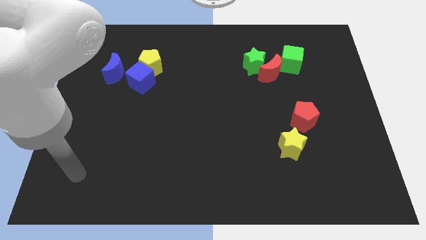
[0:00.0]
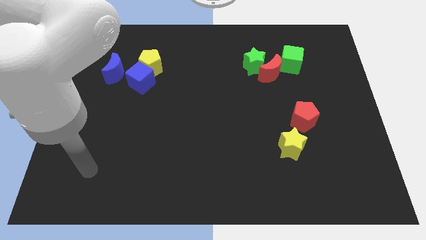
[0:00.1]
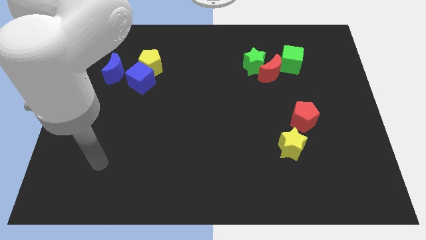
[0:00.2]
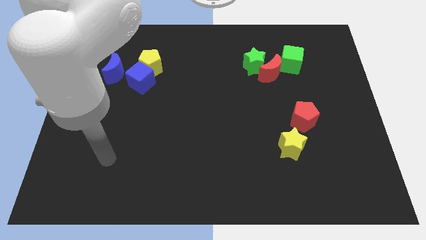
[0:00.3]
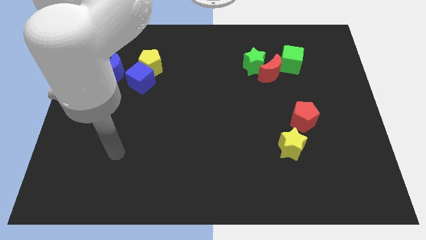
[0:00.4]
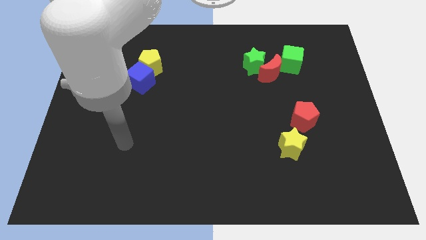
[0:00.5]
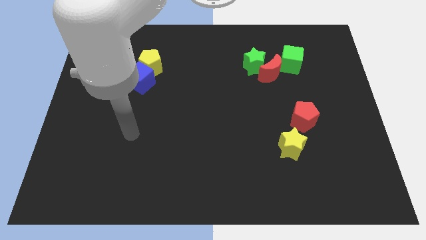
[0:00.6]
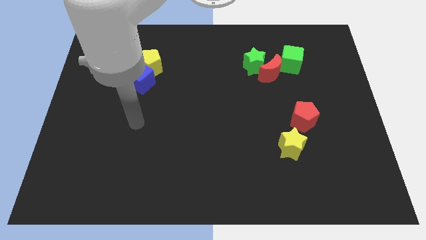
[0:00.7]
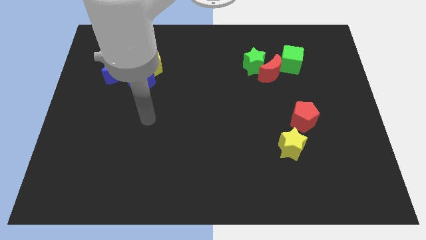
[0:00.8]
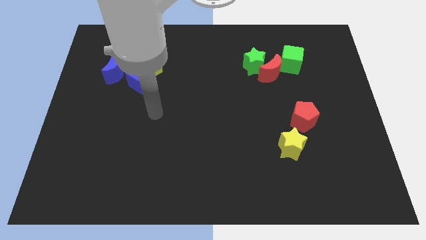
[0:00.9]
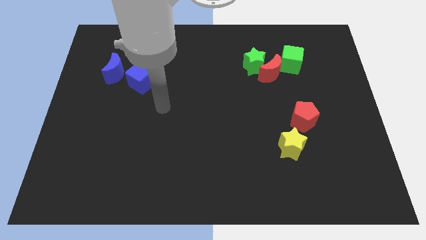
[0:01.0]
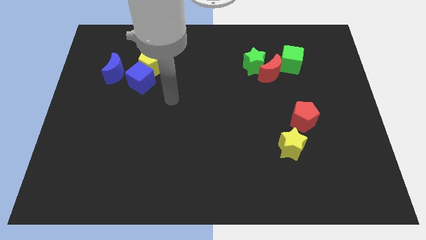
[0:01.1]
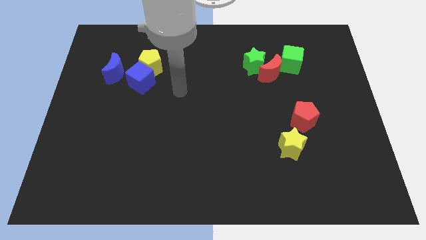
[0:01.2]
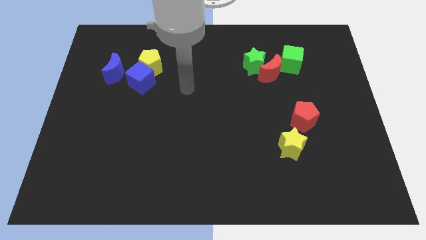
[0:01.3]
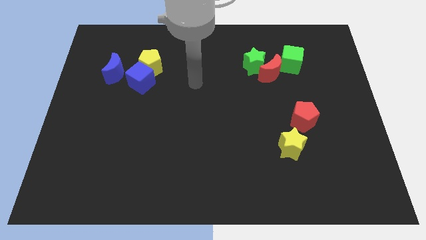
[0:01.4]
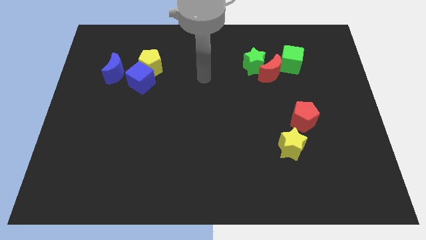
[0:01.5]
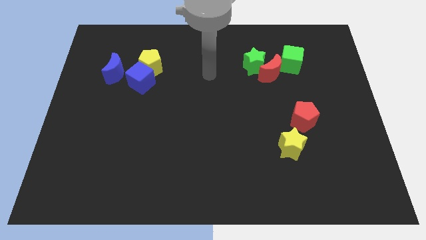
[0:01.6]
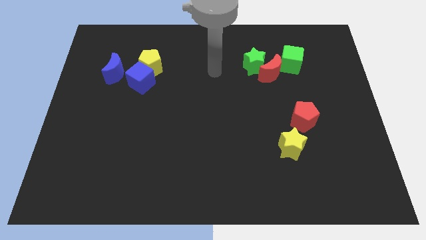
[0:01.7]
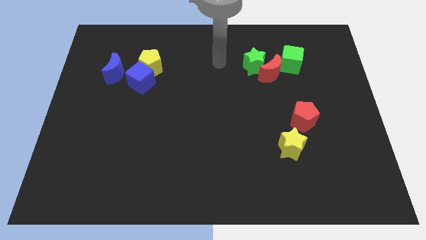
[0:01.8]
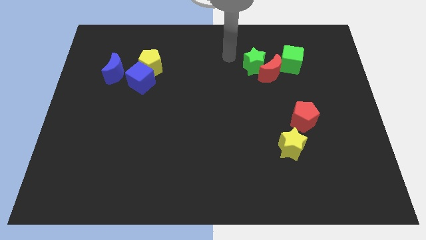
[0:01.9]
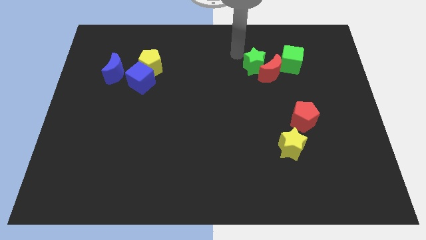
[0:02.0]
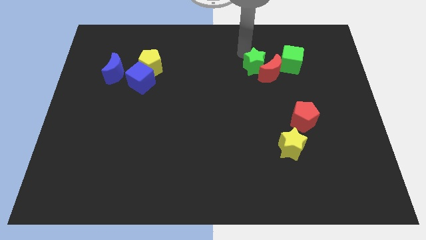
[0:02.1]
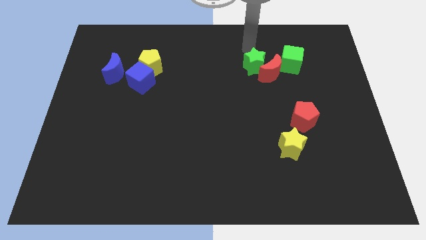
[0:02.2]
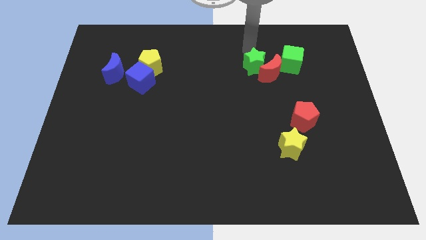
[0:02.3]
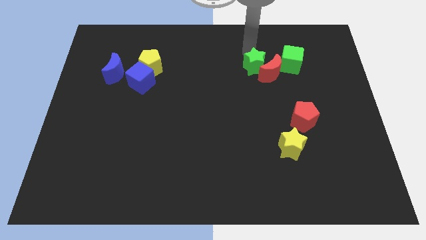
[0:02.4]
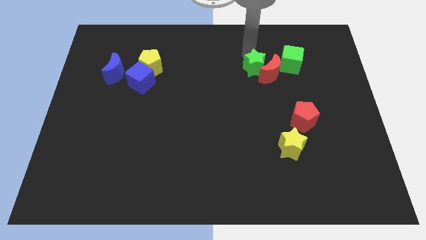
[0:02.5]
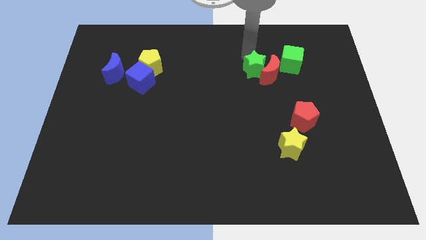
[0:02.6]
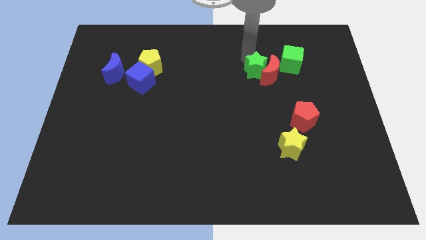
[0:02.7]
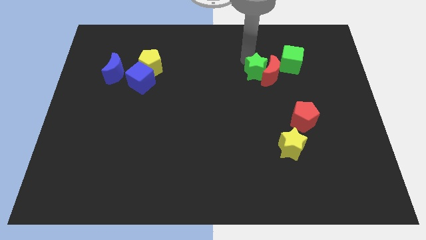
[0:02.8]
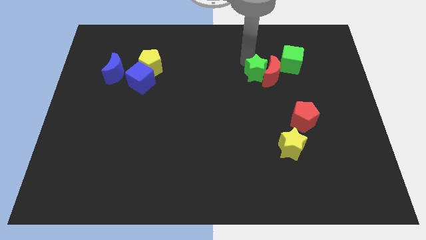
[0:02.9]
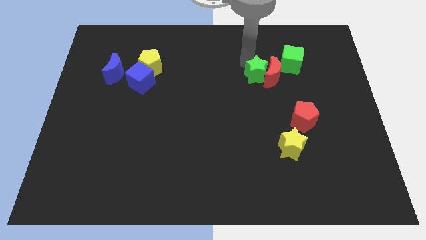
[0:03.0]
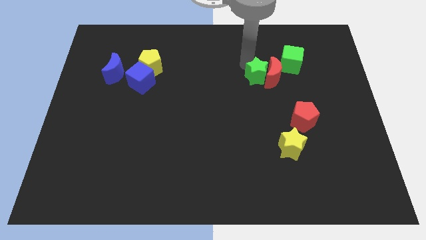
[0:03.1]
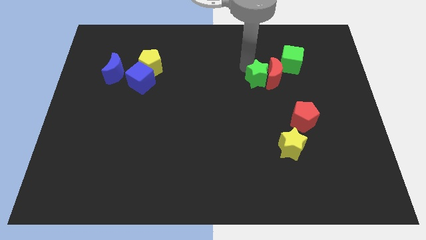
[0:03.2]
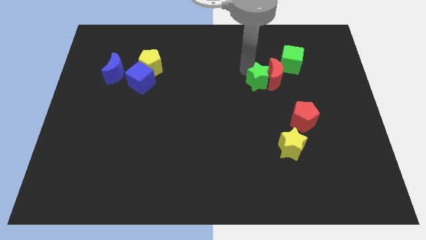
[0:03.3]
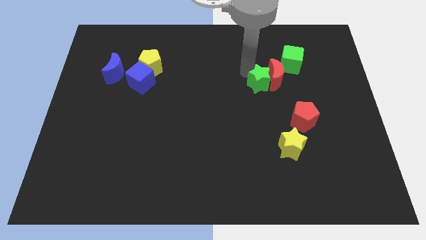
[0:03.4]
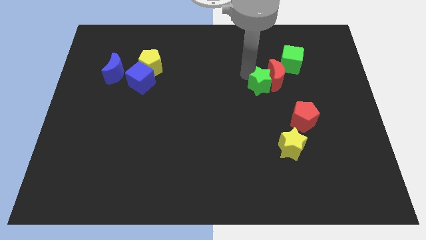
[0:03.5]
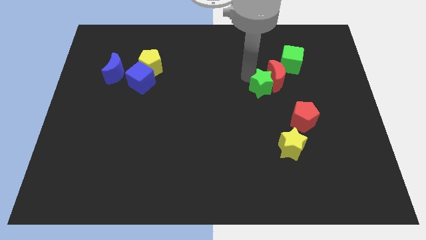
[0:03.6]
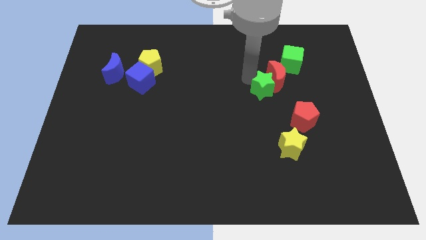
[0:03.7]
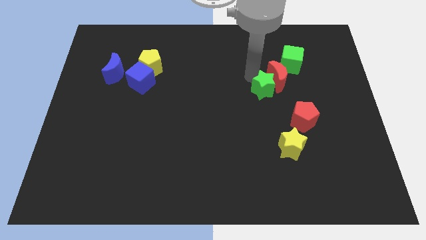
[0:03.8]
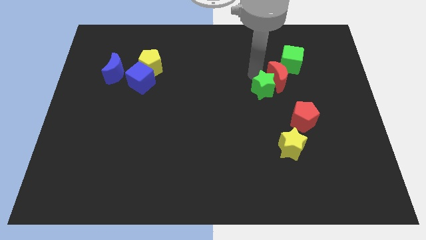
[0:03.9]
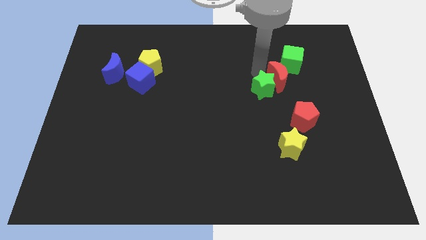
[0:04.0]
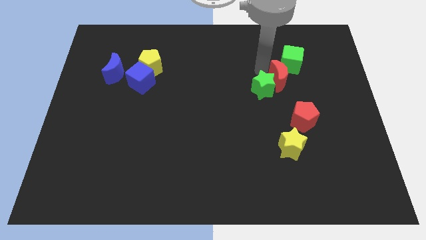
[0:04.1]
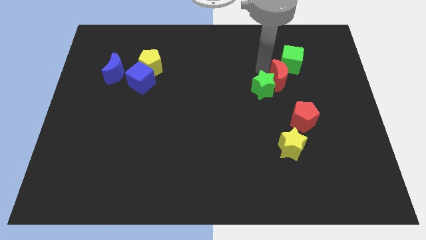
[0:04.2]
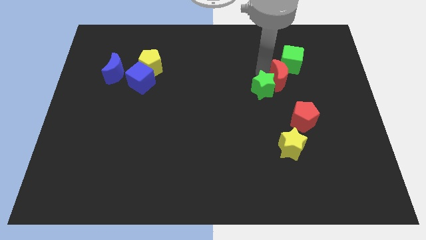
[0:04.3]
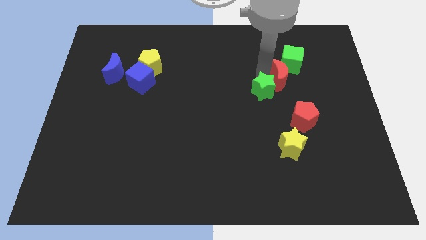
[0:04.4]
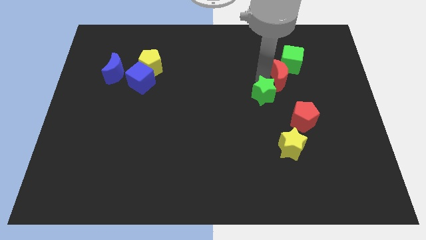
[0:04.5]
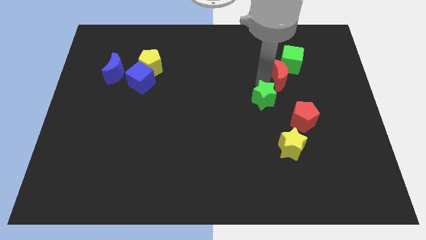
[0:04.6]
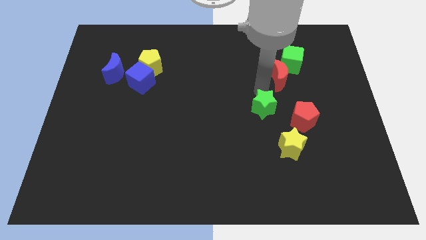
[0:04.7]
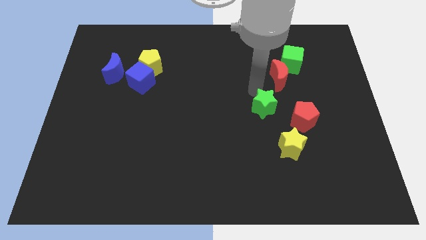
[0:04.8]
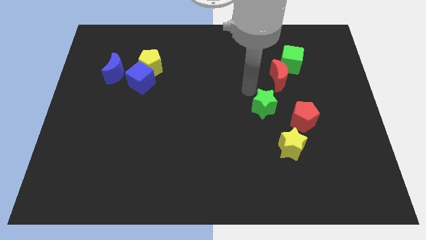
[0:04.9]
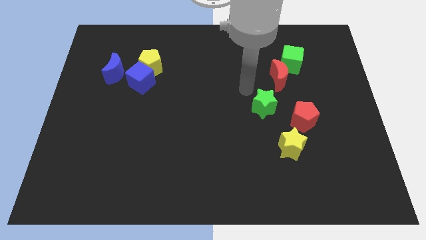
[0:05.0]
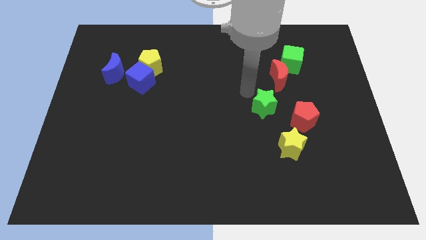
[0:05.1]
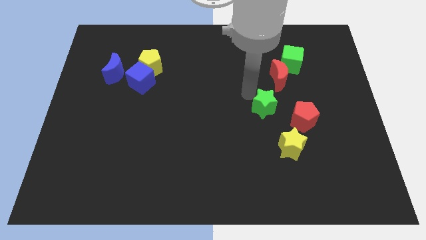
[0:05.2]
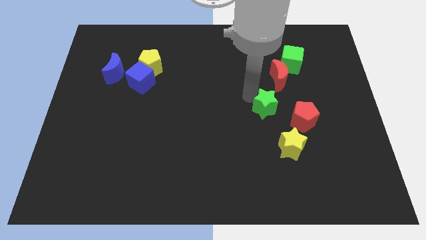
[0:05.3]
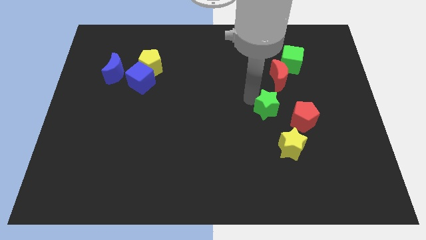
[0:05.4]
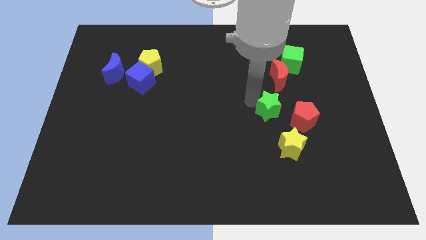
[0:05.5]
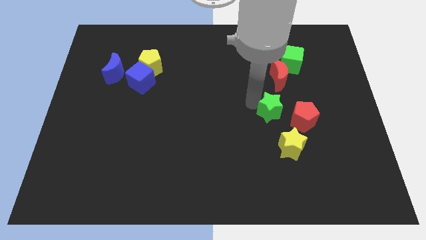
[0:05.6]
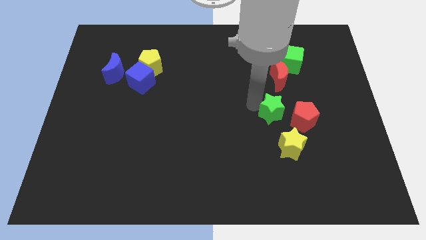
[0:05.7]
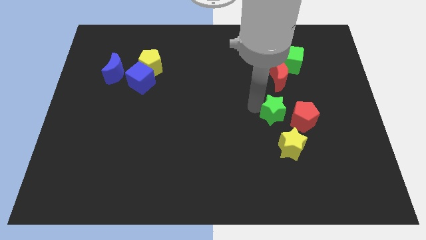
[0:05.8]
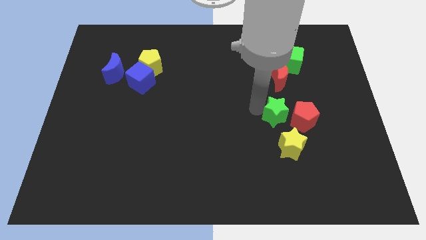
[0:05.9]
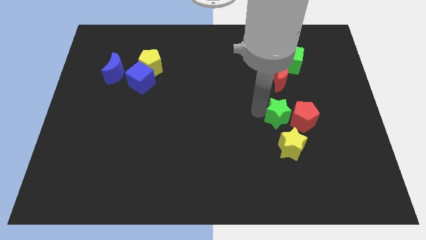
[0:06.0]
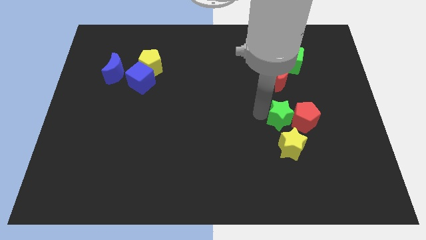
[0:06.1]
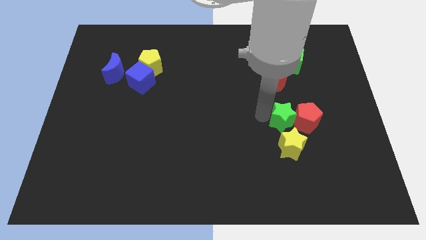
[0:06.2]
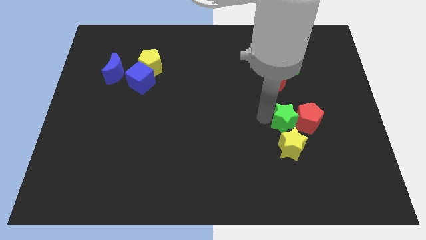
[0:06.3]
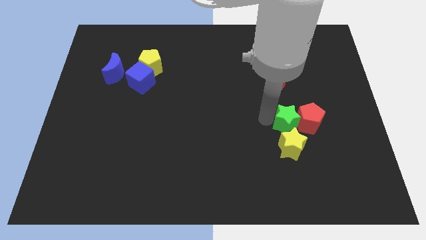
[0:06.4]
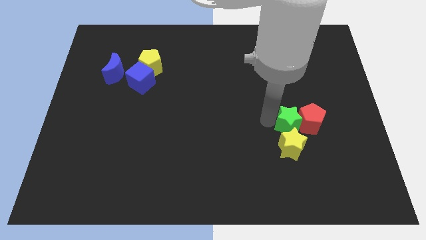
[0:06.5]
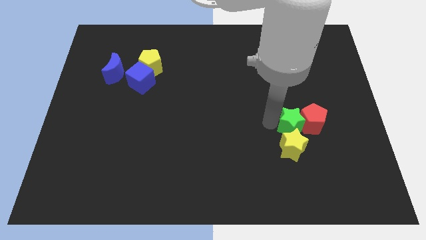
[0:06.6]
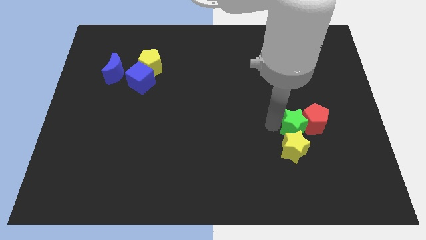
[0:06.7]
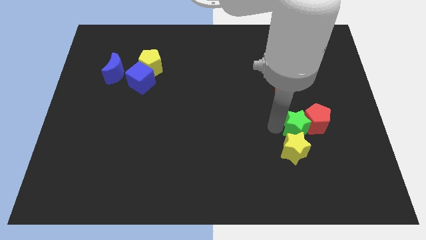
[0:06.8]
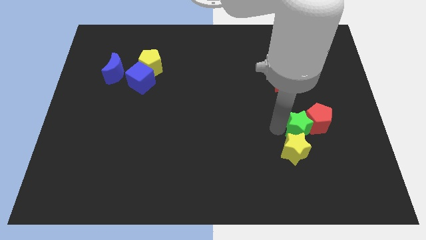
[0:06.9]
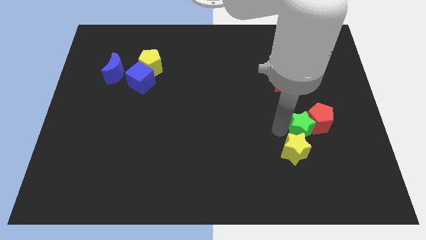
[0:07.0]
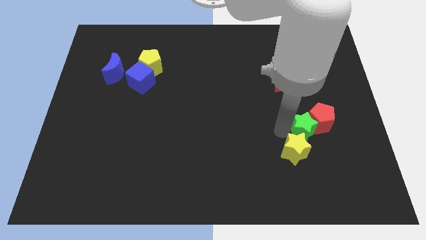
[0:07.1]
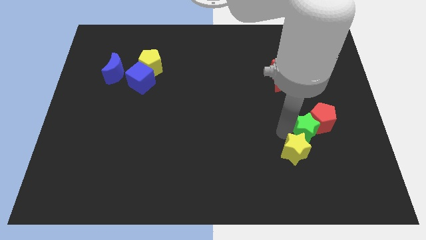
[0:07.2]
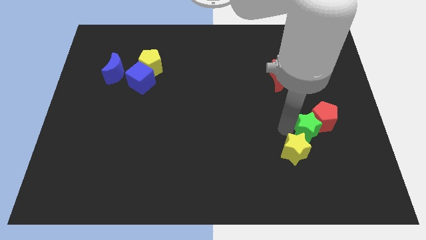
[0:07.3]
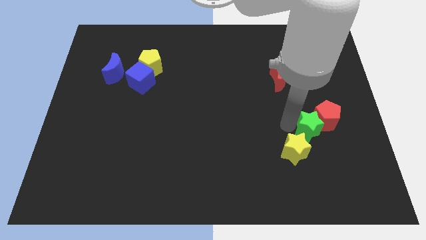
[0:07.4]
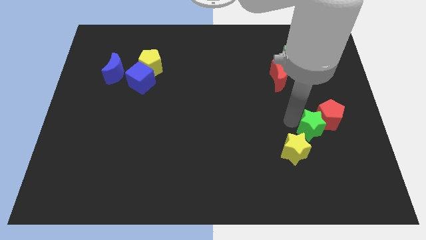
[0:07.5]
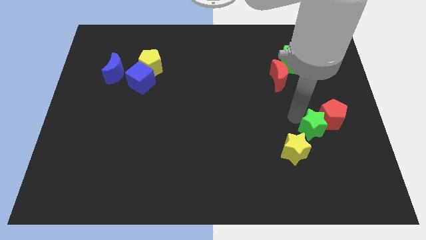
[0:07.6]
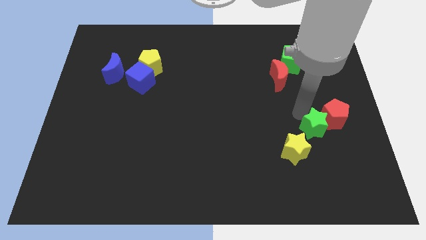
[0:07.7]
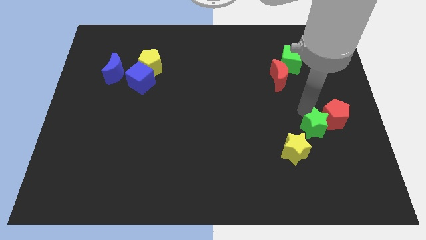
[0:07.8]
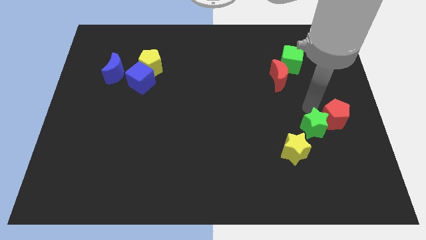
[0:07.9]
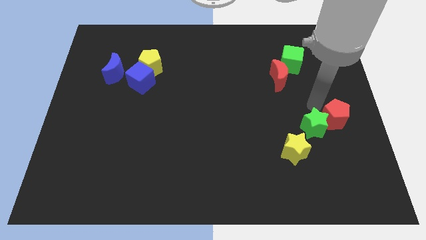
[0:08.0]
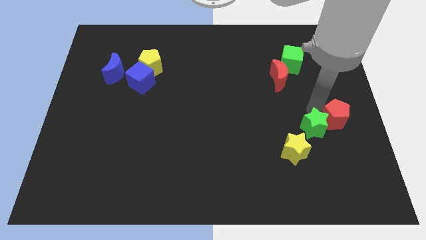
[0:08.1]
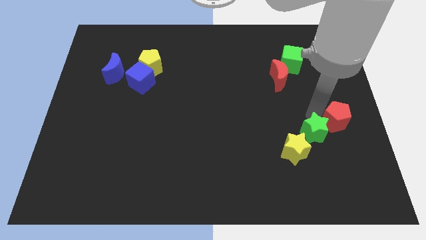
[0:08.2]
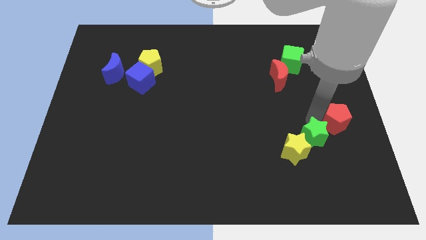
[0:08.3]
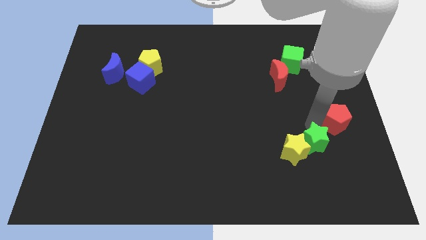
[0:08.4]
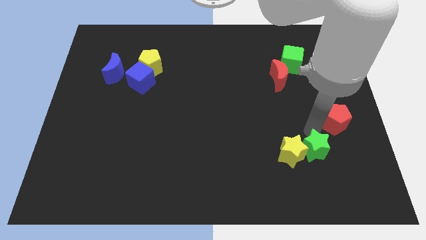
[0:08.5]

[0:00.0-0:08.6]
slide the green star to the bottom right side of the yellow star
